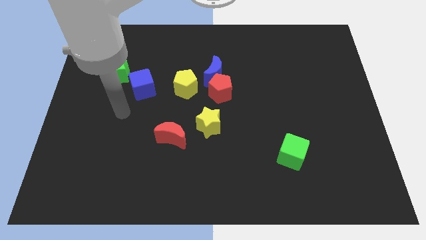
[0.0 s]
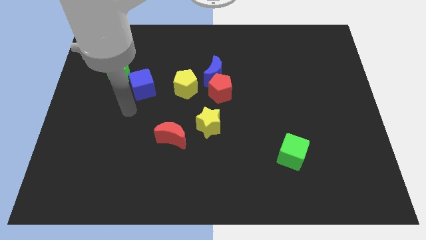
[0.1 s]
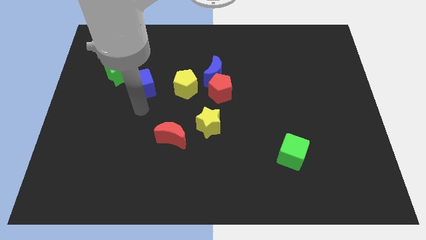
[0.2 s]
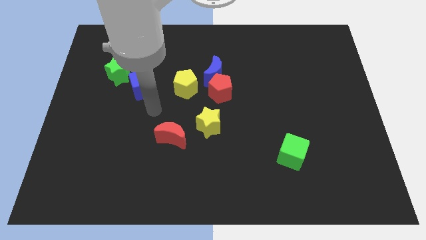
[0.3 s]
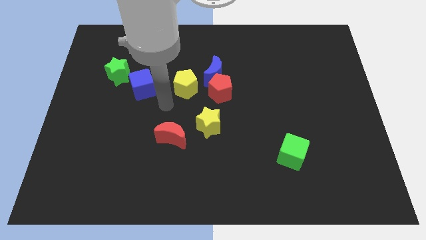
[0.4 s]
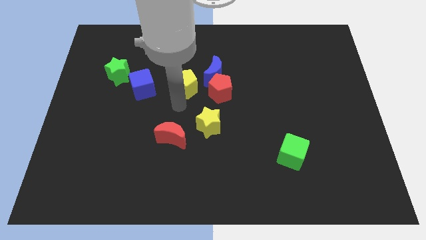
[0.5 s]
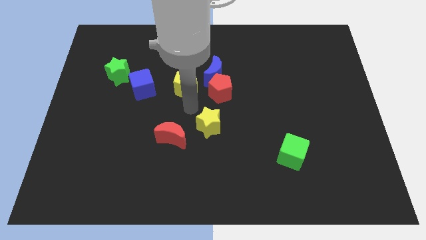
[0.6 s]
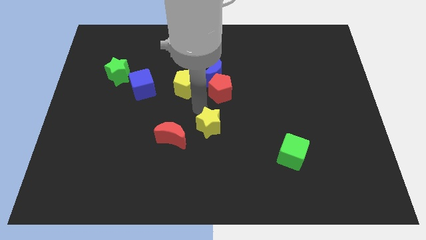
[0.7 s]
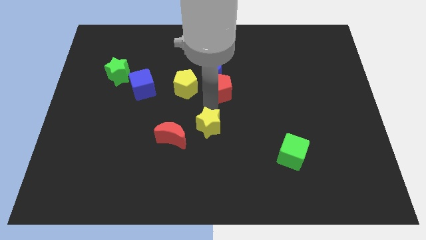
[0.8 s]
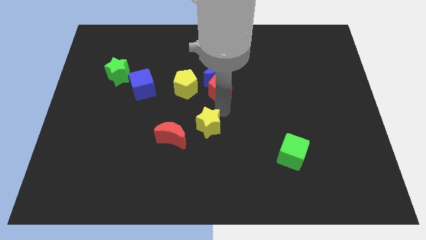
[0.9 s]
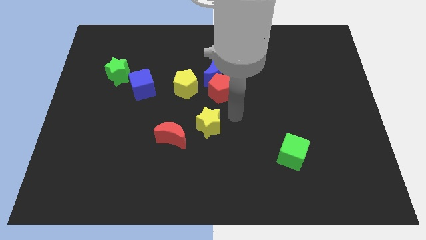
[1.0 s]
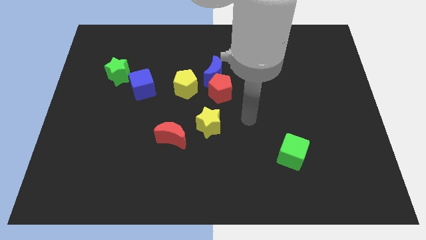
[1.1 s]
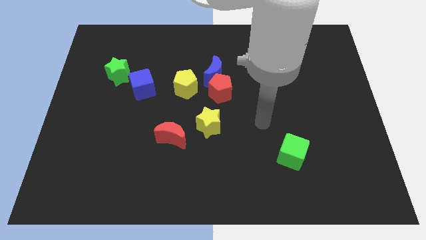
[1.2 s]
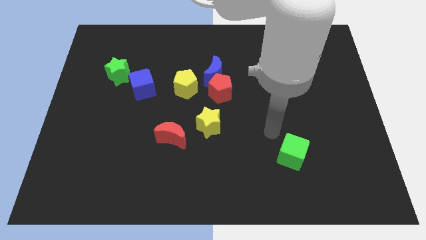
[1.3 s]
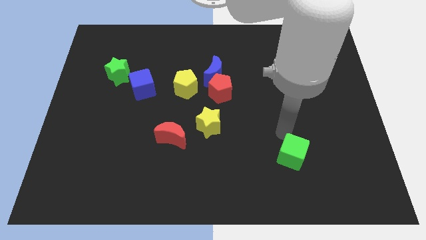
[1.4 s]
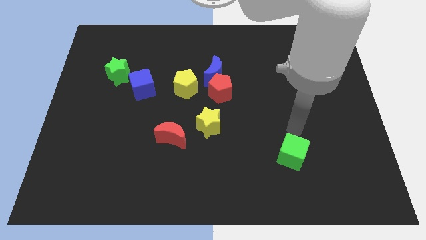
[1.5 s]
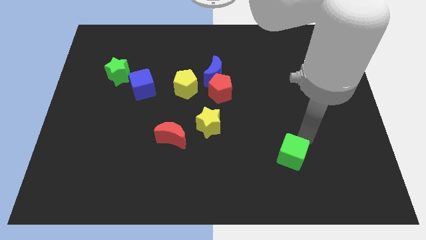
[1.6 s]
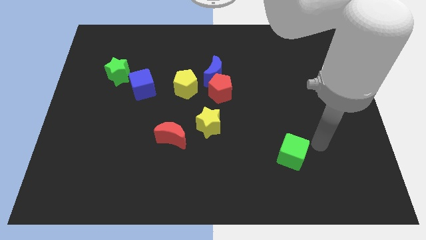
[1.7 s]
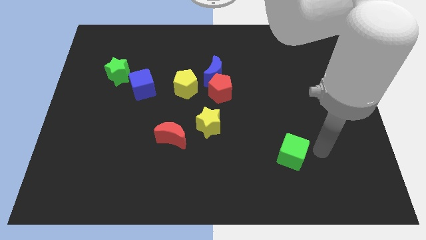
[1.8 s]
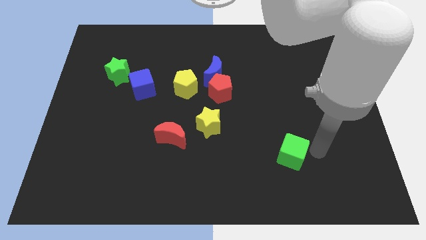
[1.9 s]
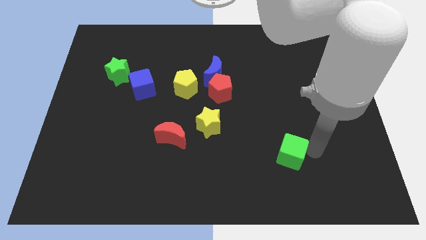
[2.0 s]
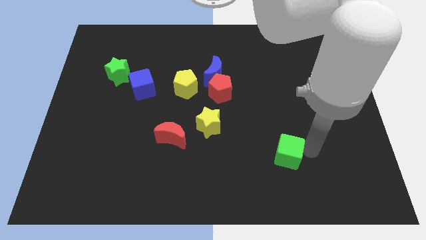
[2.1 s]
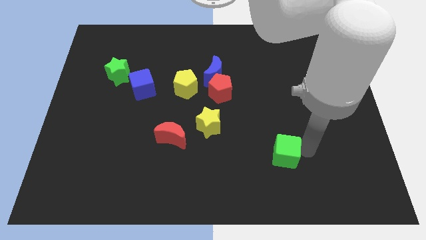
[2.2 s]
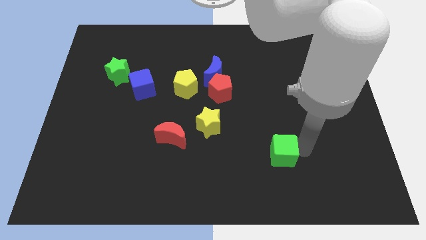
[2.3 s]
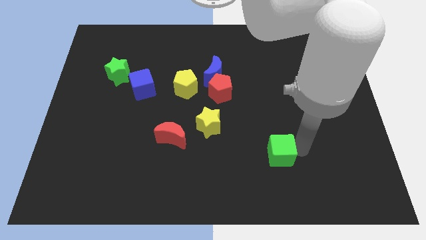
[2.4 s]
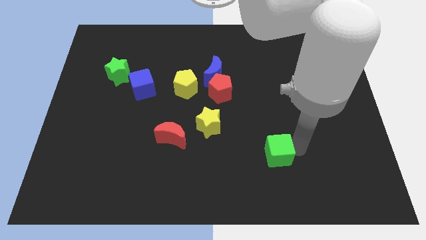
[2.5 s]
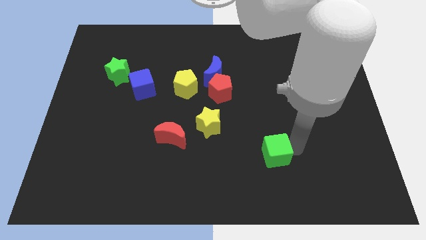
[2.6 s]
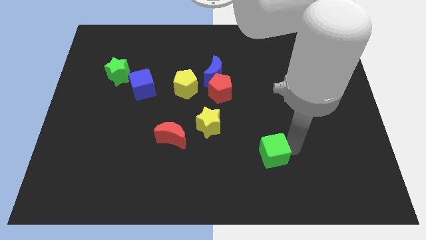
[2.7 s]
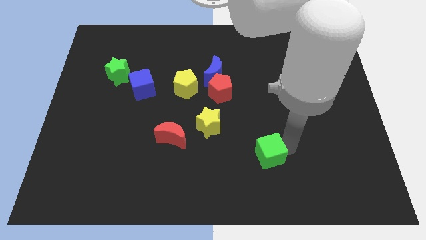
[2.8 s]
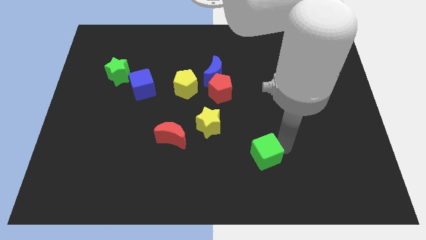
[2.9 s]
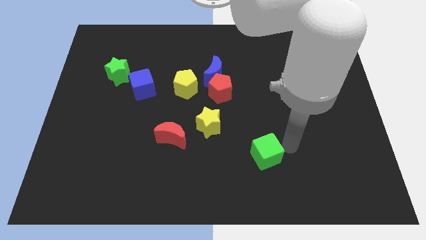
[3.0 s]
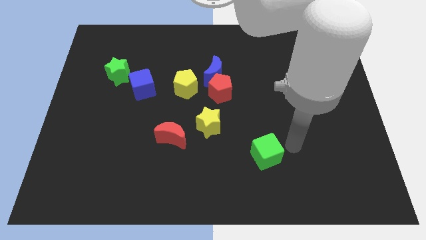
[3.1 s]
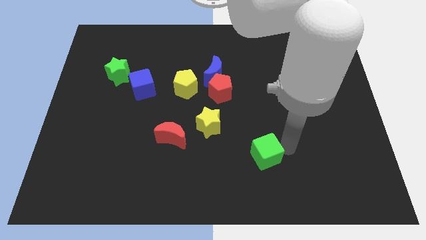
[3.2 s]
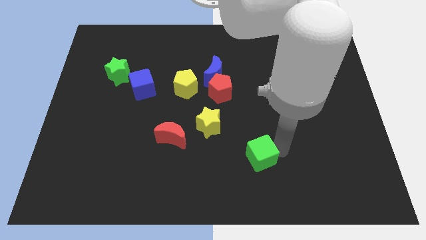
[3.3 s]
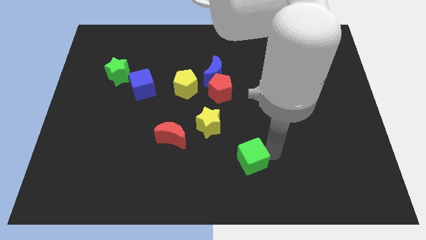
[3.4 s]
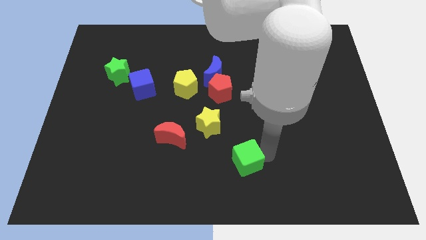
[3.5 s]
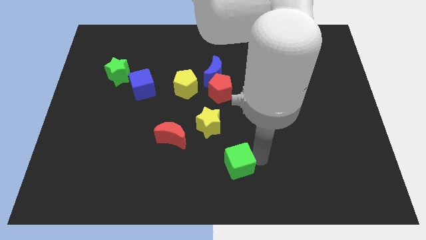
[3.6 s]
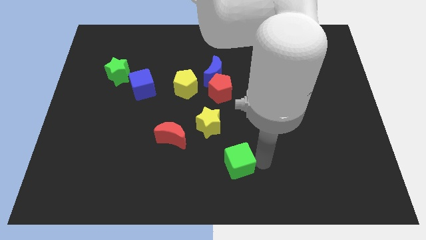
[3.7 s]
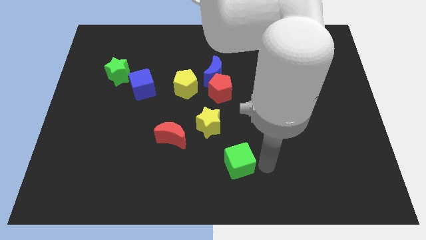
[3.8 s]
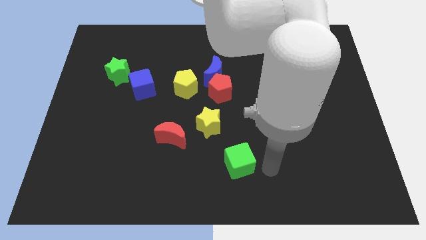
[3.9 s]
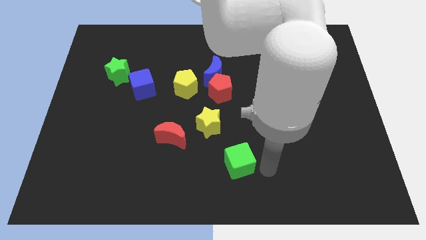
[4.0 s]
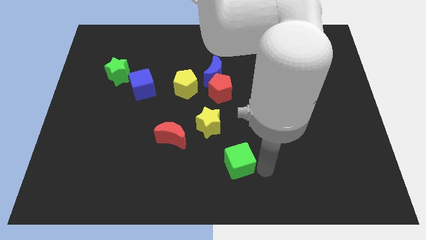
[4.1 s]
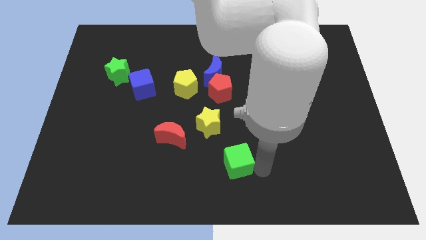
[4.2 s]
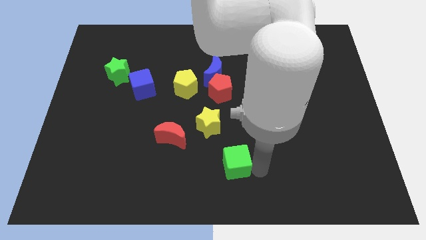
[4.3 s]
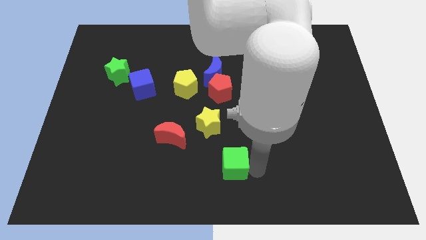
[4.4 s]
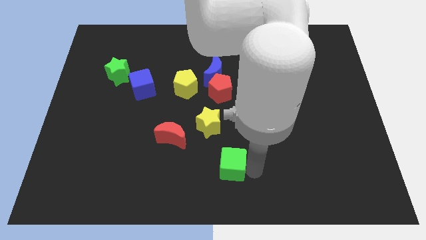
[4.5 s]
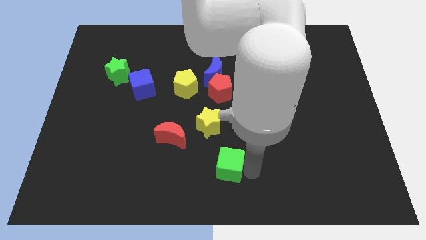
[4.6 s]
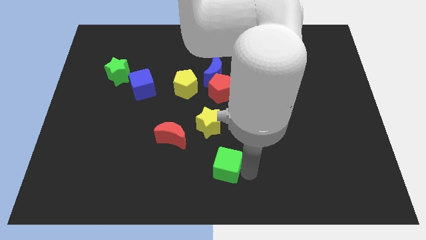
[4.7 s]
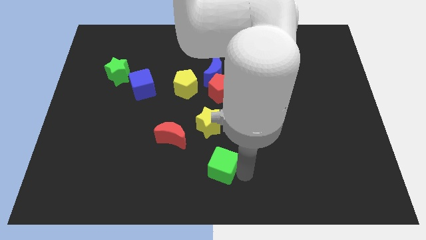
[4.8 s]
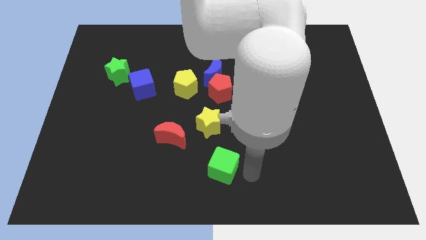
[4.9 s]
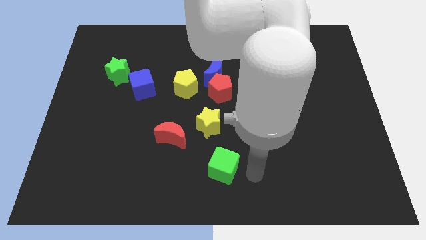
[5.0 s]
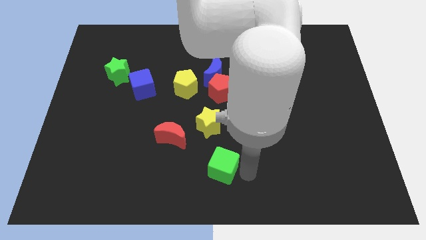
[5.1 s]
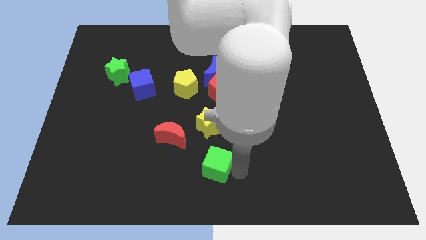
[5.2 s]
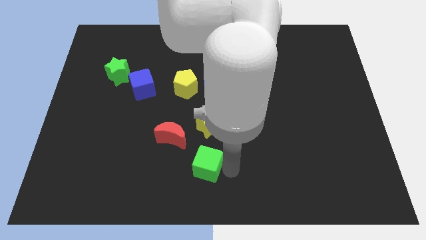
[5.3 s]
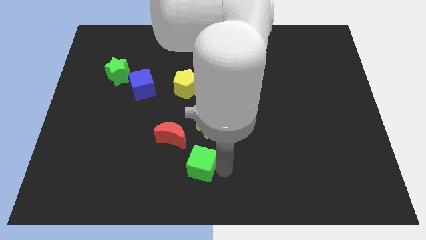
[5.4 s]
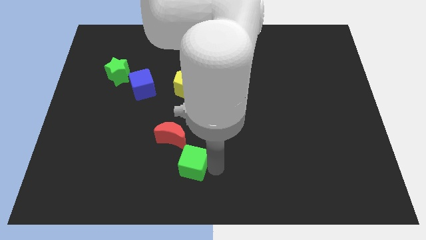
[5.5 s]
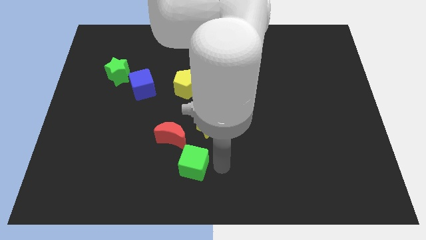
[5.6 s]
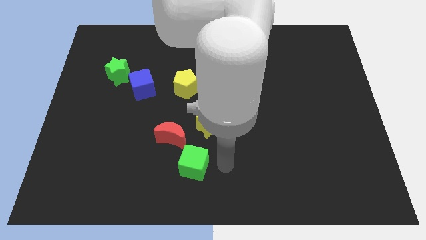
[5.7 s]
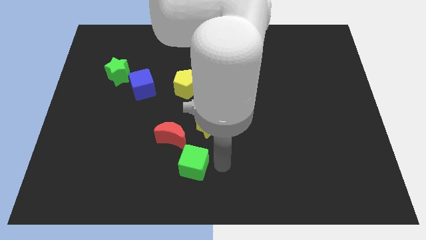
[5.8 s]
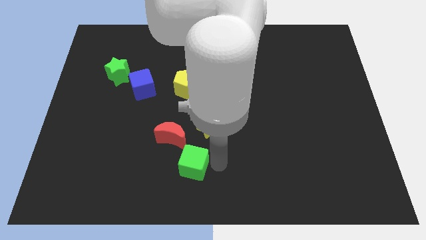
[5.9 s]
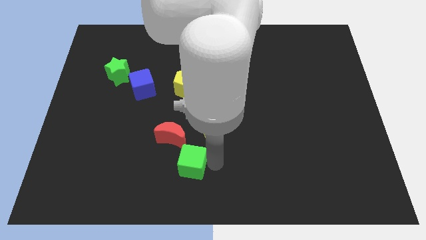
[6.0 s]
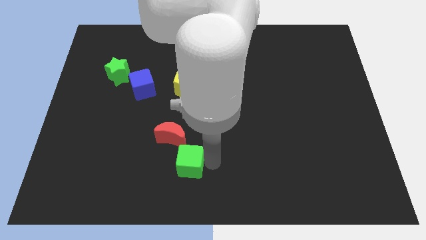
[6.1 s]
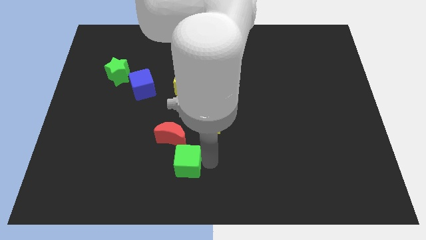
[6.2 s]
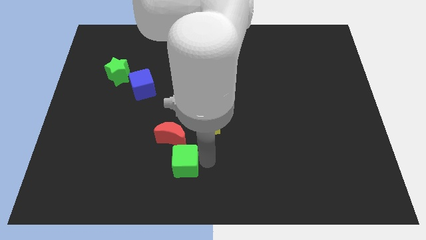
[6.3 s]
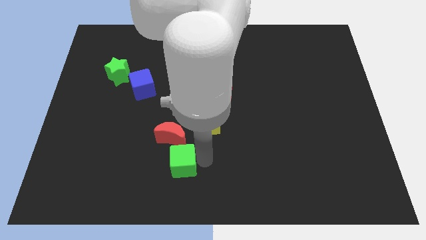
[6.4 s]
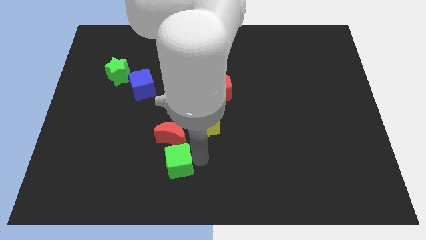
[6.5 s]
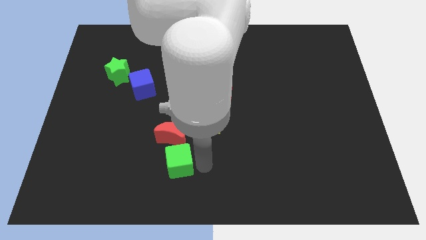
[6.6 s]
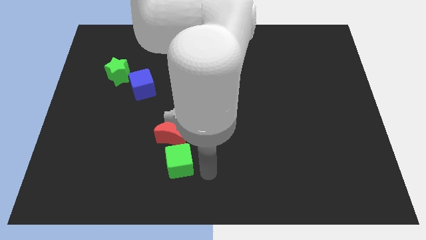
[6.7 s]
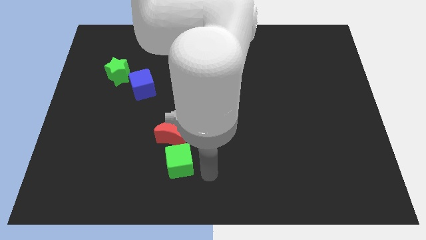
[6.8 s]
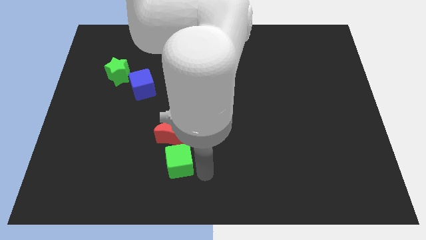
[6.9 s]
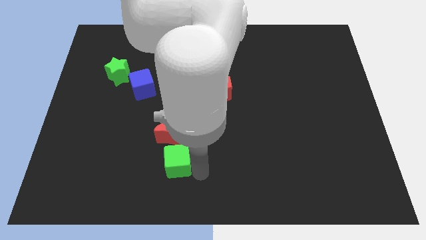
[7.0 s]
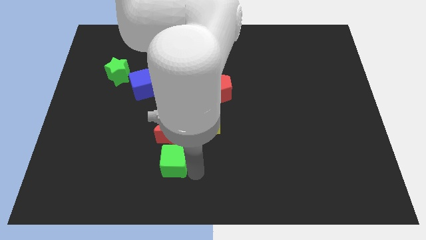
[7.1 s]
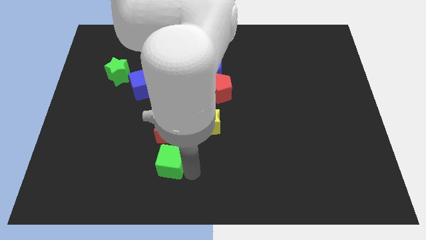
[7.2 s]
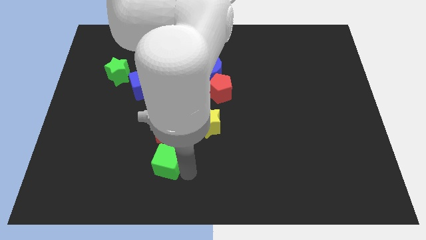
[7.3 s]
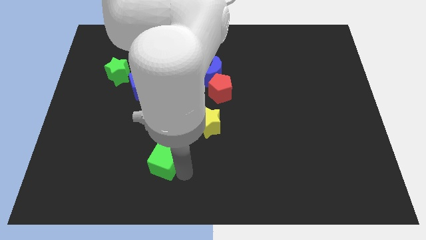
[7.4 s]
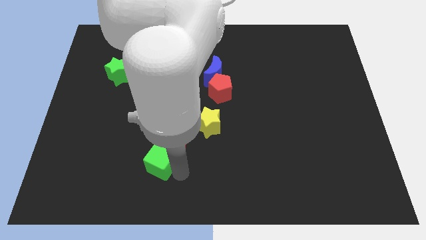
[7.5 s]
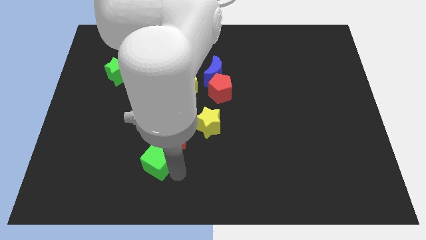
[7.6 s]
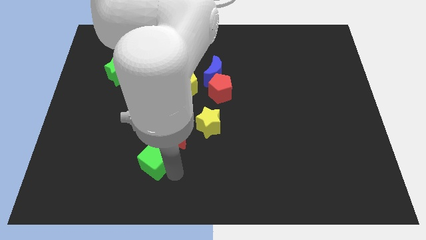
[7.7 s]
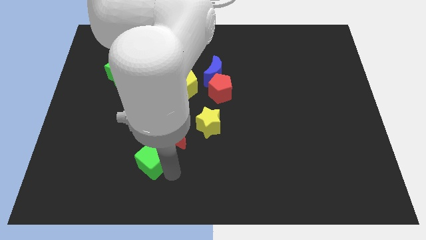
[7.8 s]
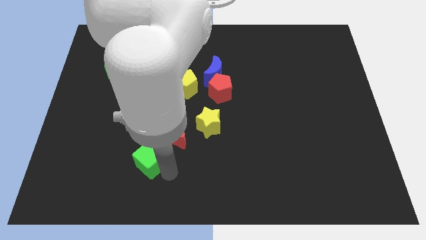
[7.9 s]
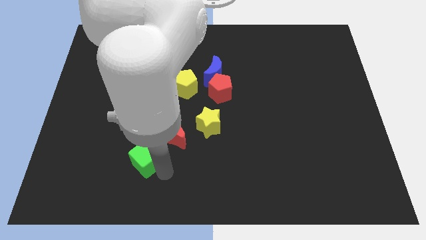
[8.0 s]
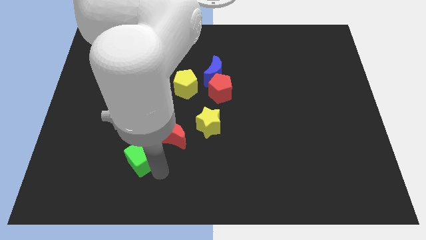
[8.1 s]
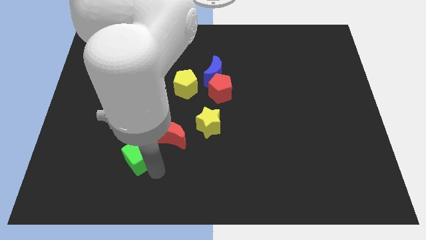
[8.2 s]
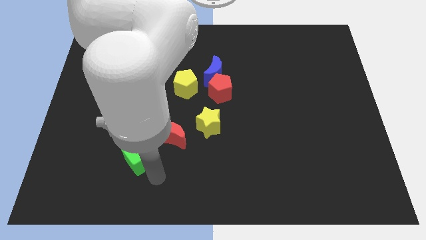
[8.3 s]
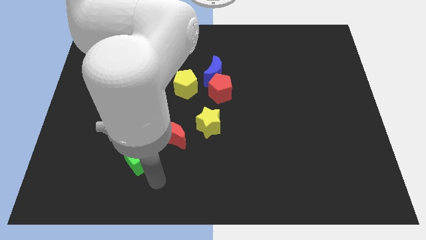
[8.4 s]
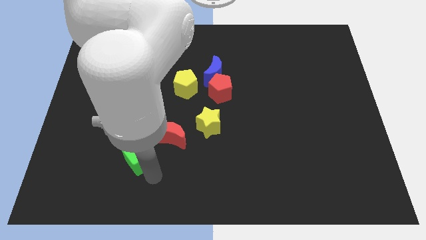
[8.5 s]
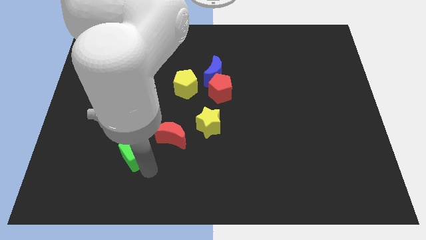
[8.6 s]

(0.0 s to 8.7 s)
slide the green cube just left of the red moon
